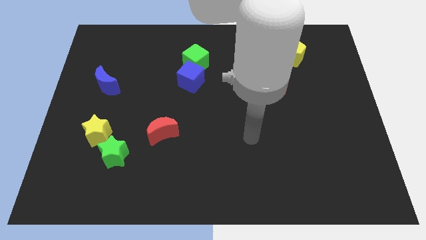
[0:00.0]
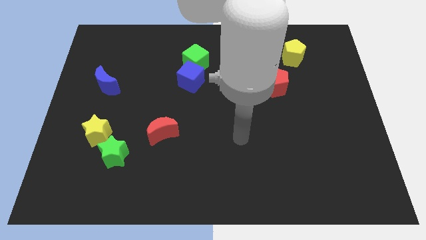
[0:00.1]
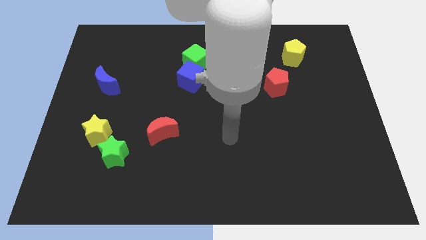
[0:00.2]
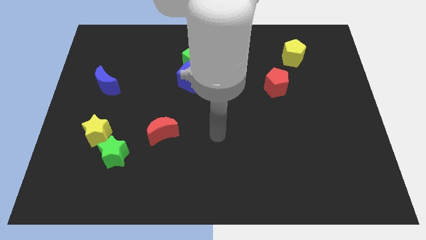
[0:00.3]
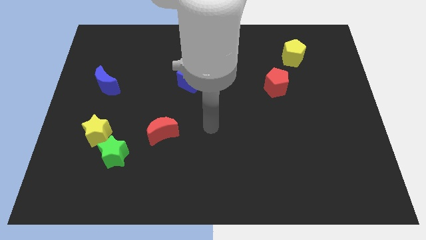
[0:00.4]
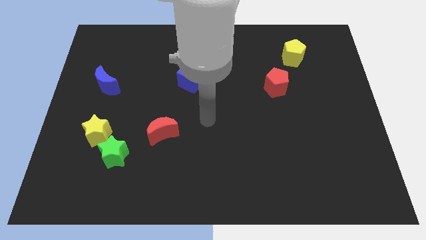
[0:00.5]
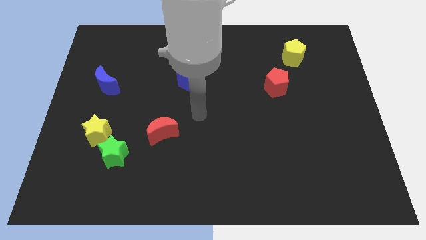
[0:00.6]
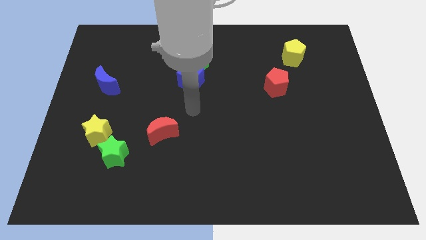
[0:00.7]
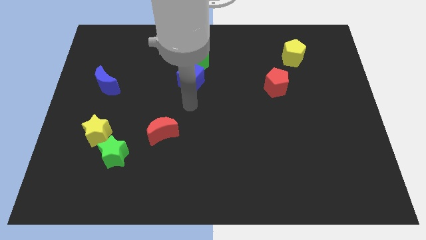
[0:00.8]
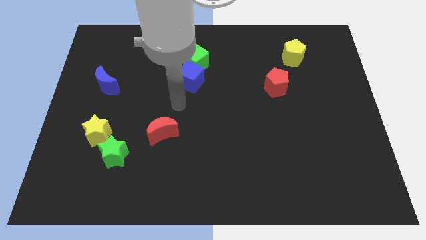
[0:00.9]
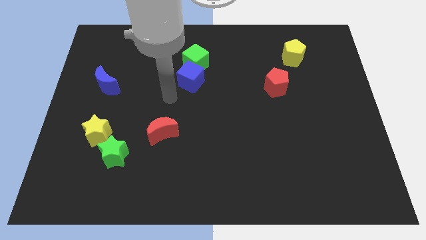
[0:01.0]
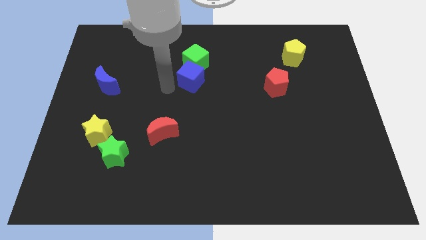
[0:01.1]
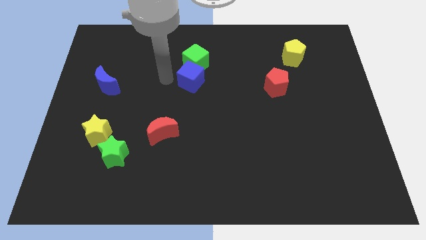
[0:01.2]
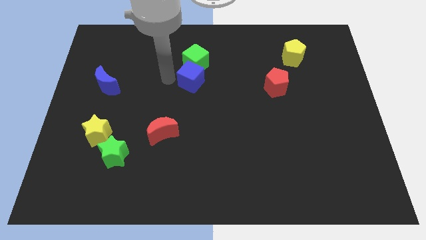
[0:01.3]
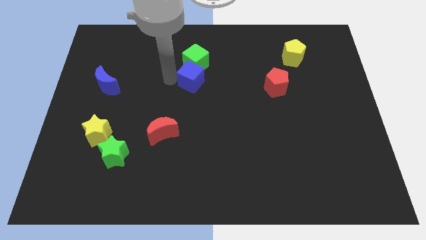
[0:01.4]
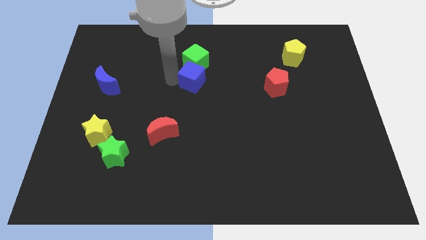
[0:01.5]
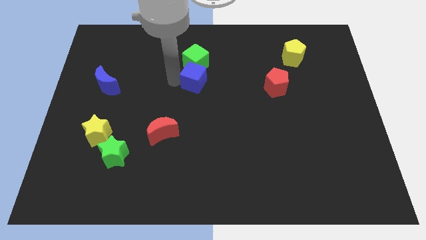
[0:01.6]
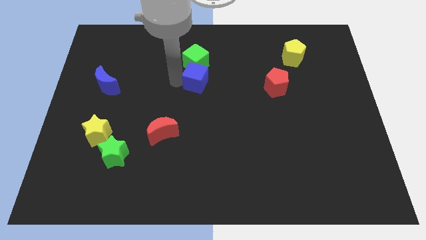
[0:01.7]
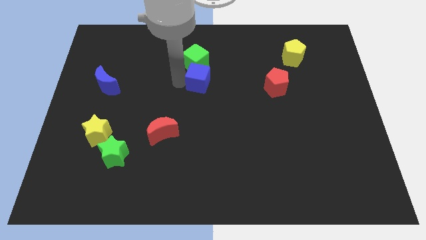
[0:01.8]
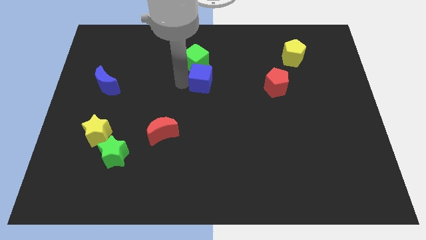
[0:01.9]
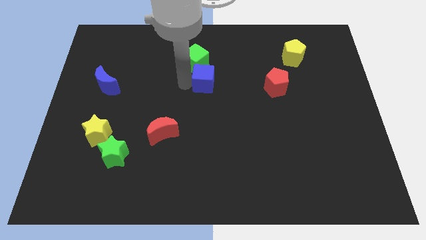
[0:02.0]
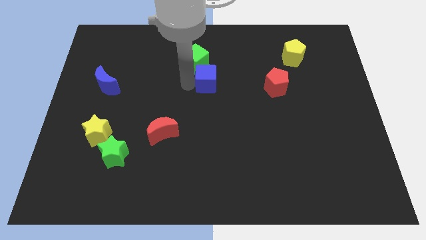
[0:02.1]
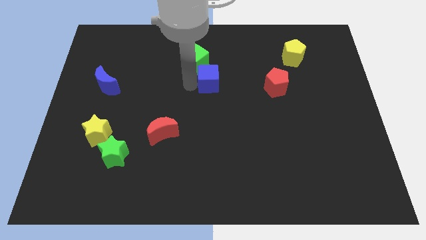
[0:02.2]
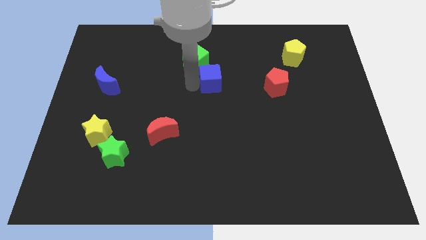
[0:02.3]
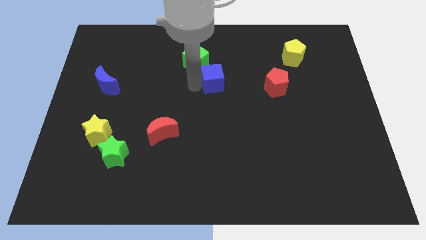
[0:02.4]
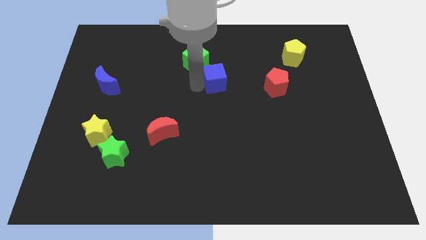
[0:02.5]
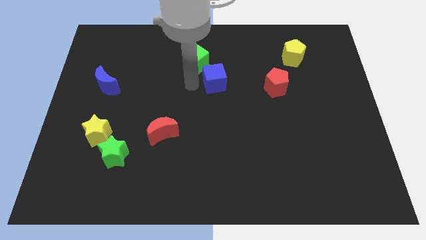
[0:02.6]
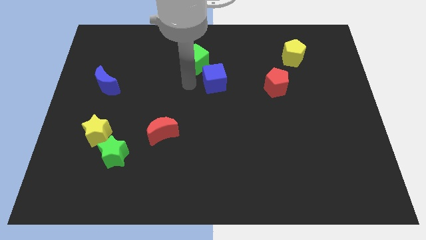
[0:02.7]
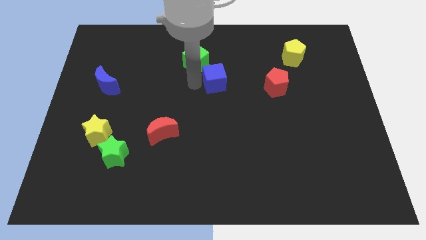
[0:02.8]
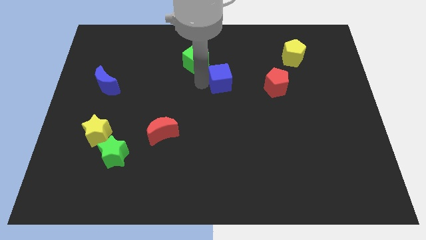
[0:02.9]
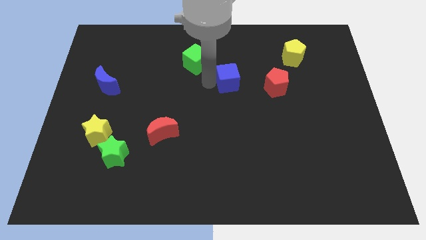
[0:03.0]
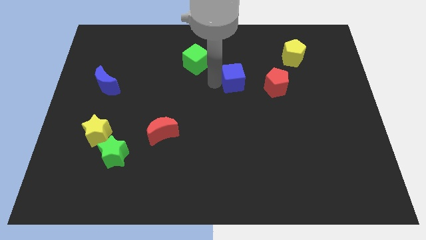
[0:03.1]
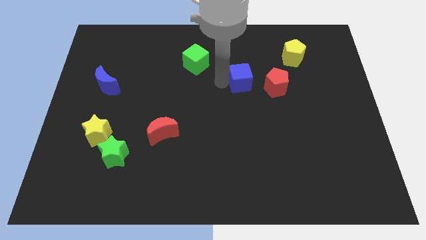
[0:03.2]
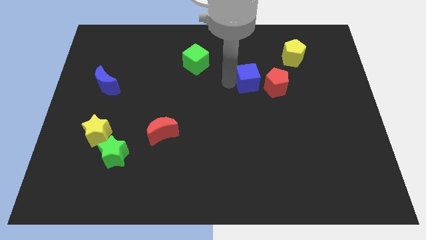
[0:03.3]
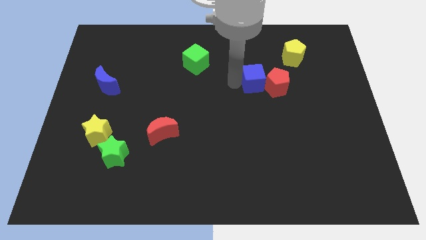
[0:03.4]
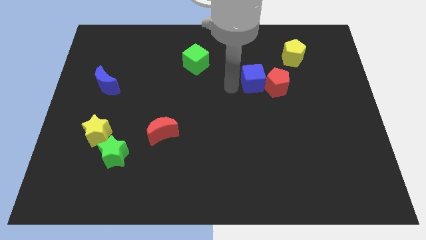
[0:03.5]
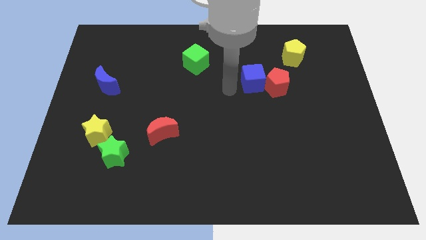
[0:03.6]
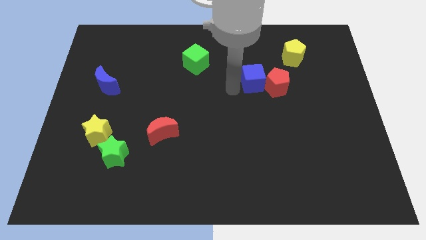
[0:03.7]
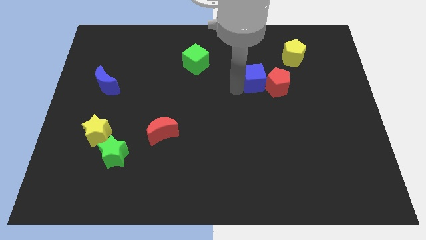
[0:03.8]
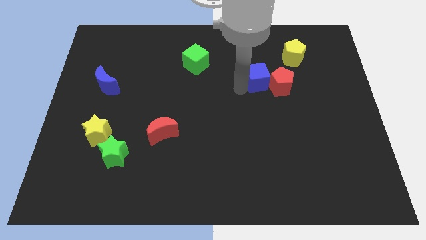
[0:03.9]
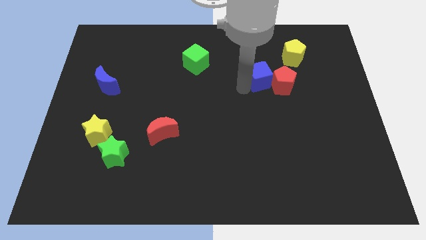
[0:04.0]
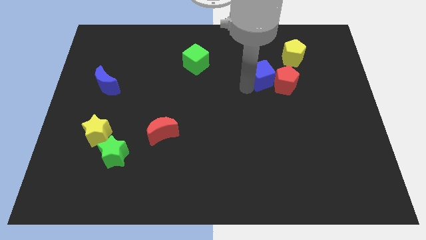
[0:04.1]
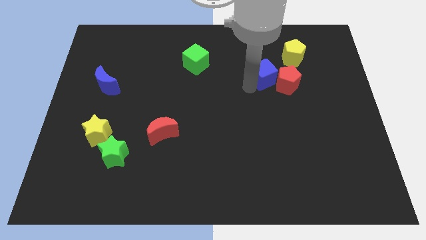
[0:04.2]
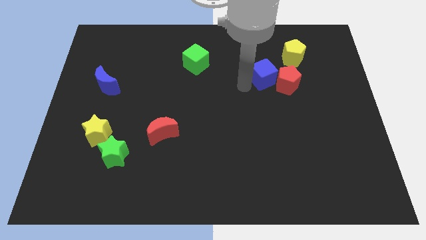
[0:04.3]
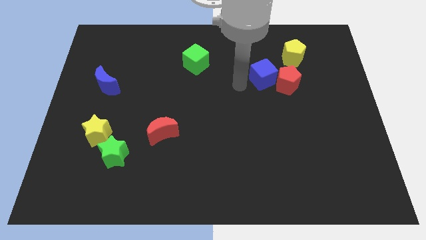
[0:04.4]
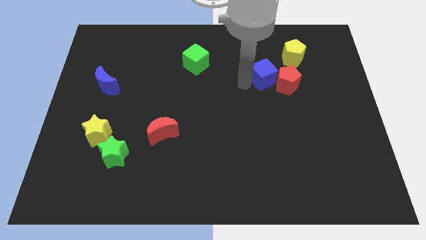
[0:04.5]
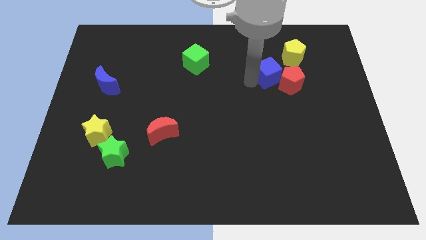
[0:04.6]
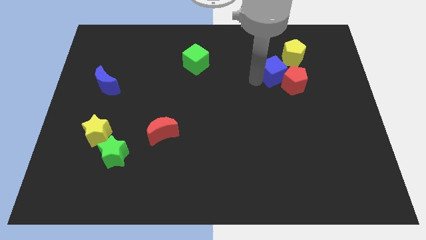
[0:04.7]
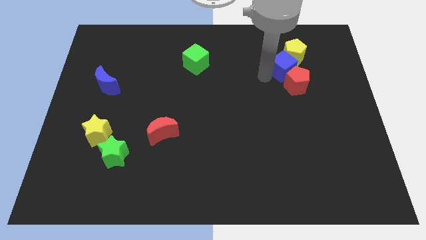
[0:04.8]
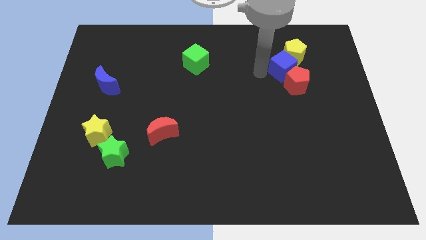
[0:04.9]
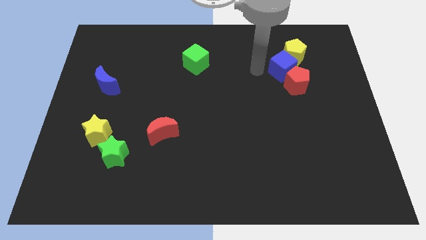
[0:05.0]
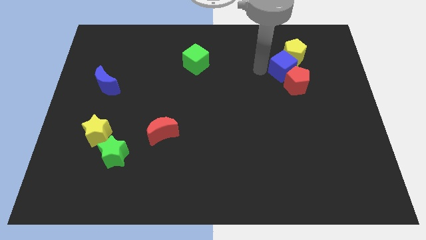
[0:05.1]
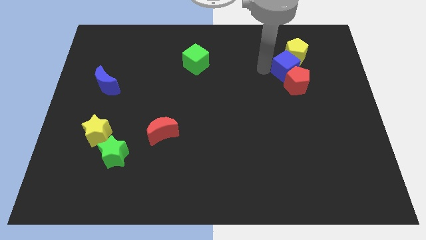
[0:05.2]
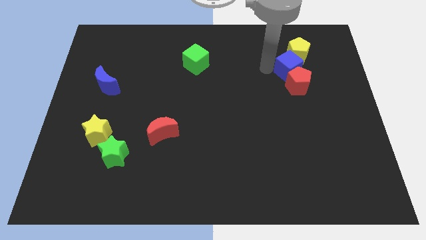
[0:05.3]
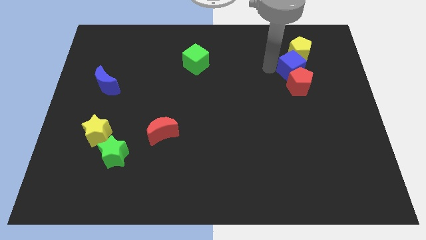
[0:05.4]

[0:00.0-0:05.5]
slide the blue cube to the top right of the red pentagon

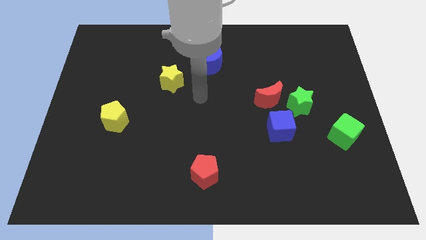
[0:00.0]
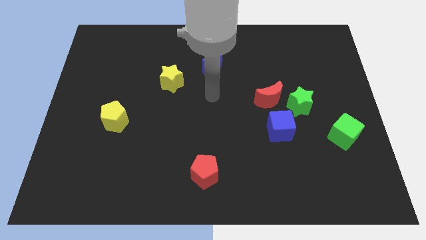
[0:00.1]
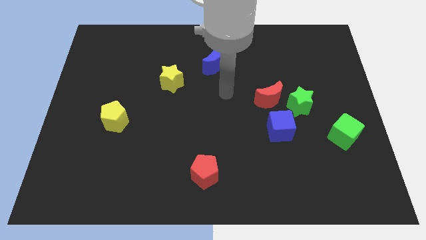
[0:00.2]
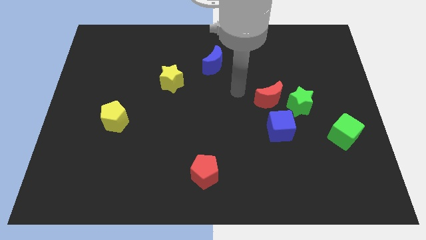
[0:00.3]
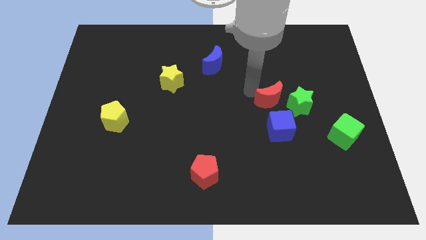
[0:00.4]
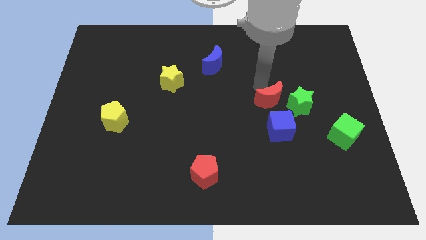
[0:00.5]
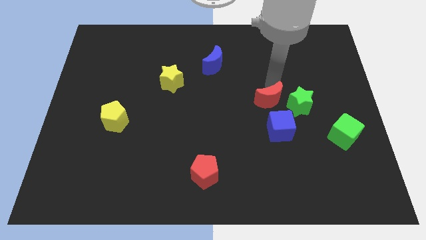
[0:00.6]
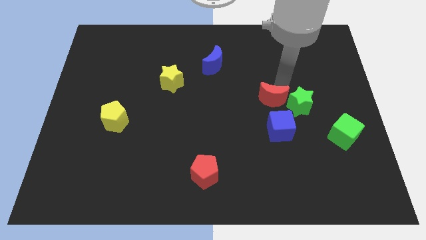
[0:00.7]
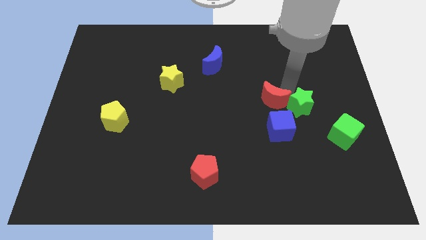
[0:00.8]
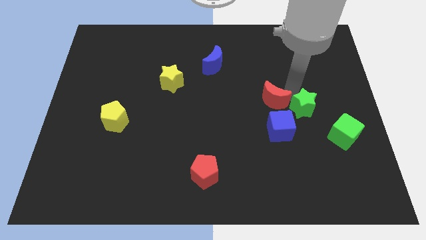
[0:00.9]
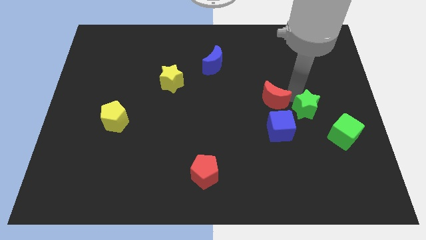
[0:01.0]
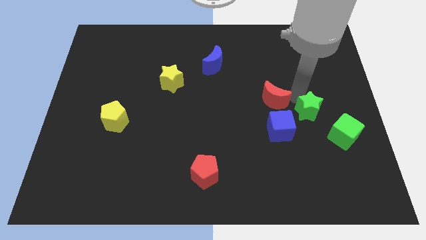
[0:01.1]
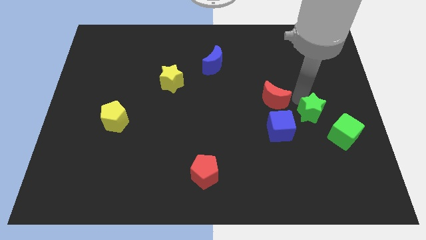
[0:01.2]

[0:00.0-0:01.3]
move the green star right of the blue cube
